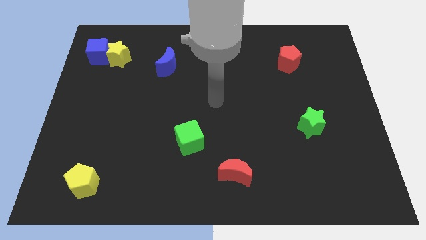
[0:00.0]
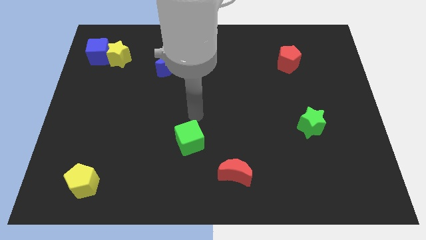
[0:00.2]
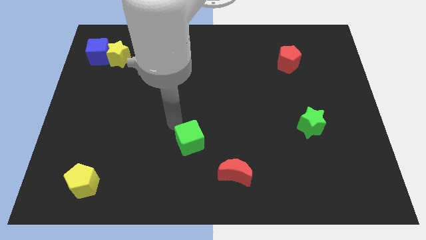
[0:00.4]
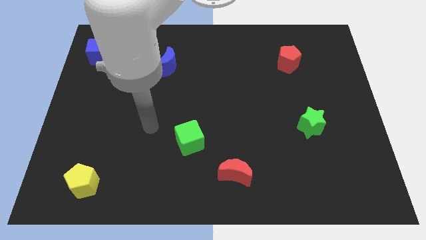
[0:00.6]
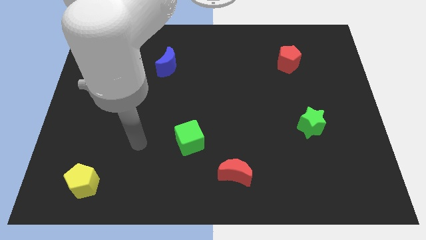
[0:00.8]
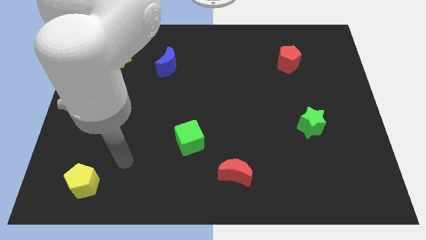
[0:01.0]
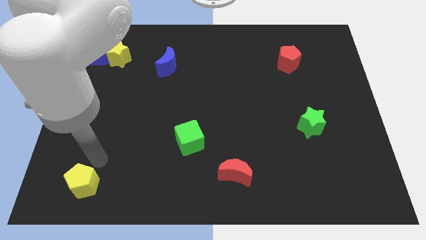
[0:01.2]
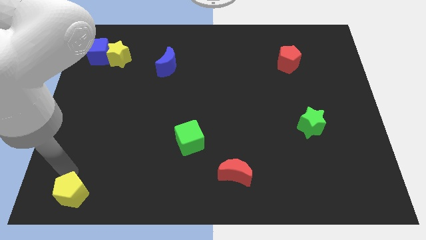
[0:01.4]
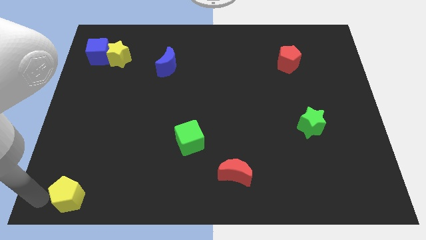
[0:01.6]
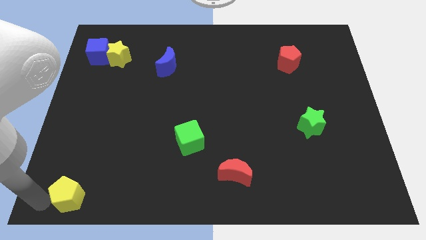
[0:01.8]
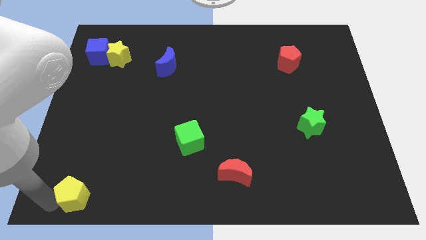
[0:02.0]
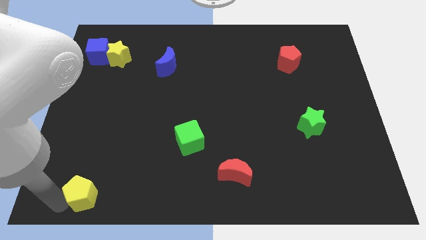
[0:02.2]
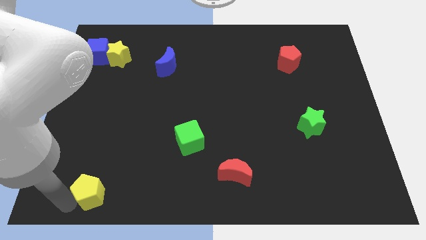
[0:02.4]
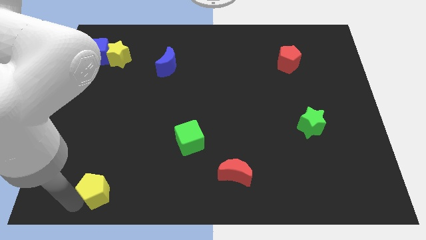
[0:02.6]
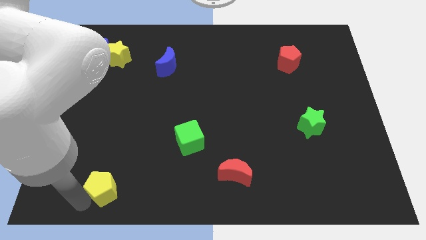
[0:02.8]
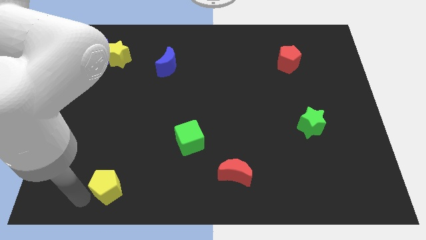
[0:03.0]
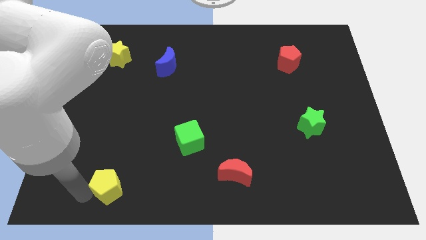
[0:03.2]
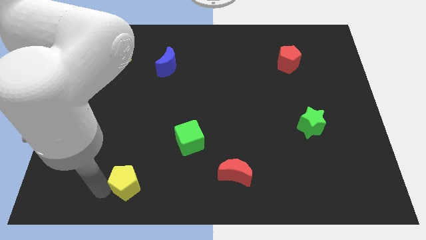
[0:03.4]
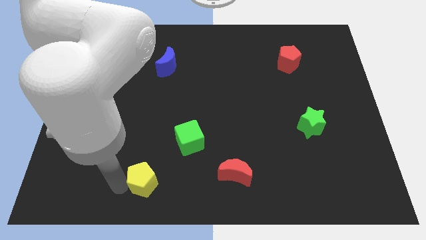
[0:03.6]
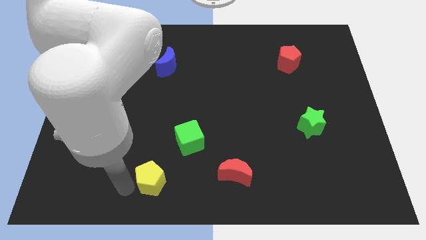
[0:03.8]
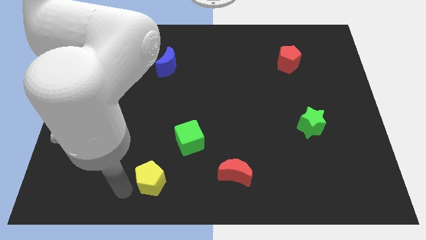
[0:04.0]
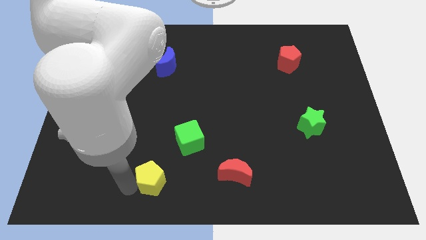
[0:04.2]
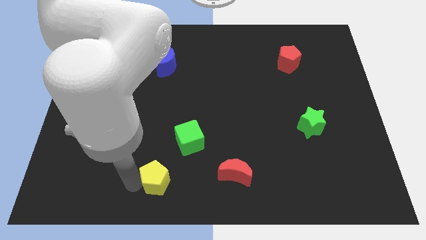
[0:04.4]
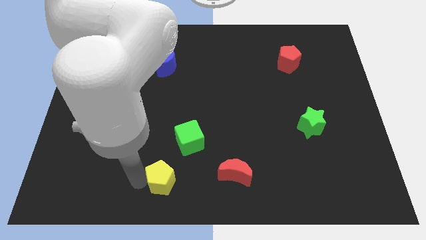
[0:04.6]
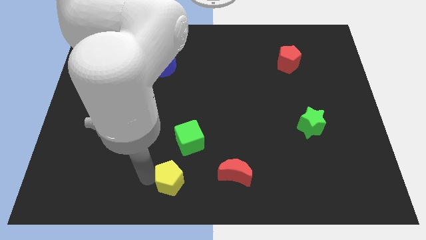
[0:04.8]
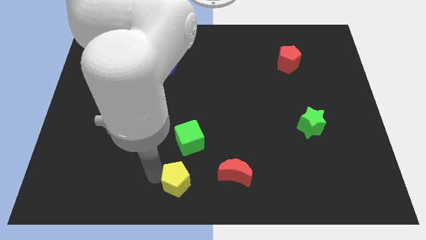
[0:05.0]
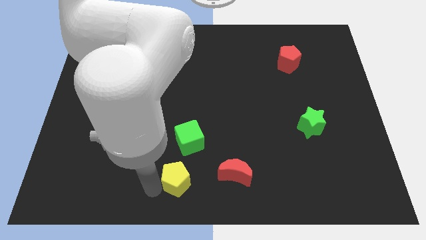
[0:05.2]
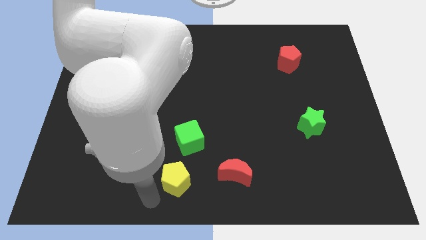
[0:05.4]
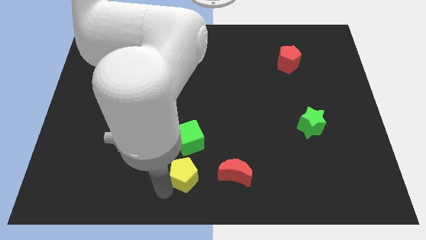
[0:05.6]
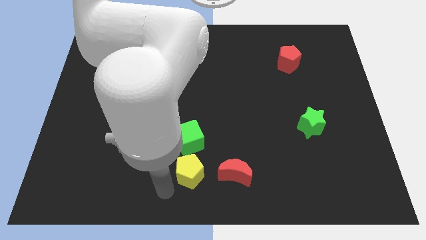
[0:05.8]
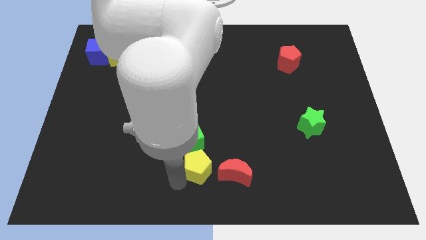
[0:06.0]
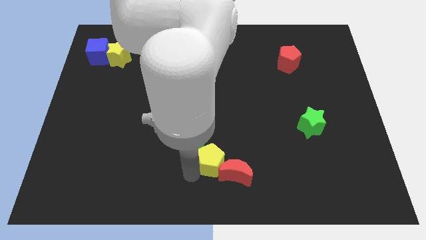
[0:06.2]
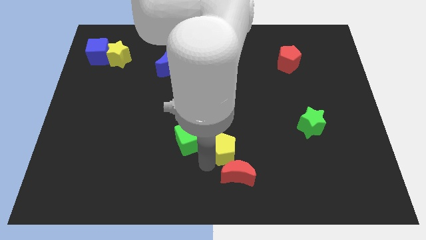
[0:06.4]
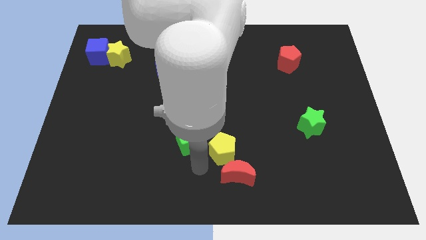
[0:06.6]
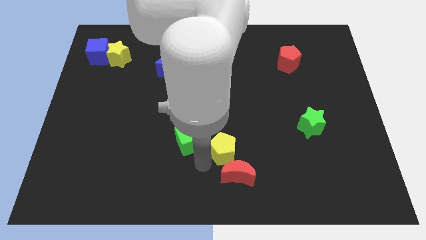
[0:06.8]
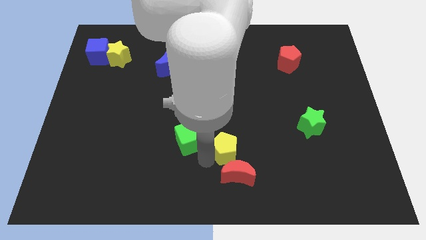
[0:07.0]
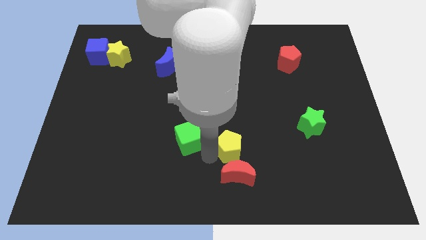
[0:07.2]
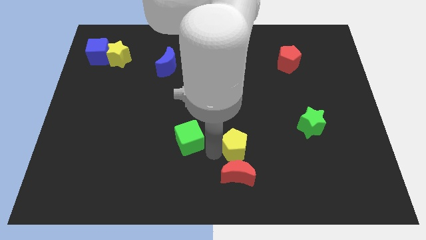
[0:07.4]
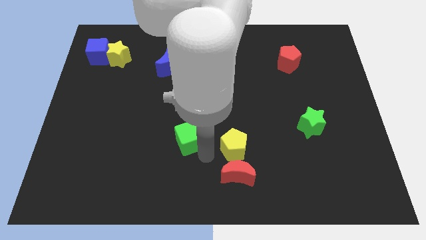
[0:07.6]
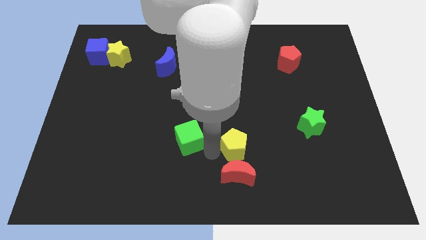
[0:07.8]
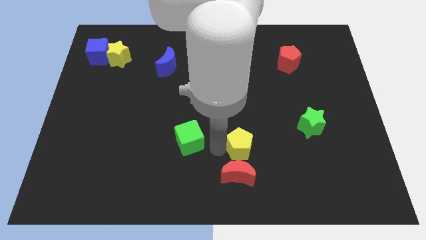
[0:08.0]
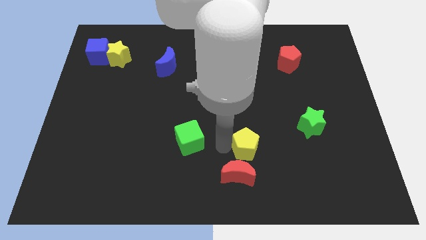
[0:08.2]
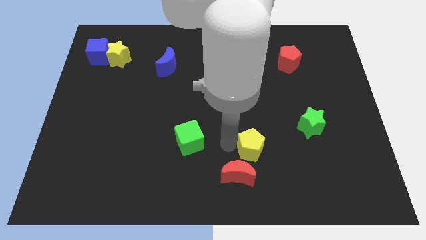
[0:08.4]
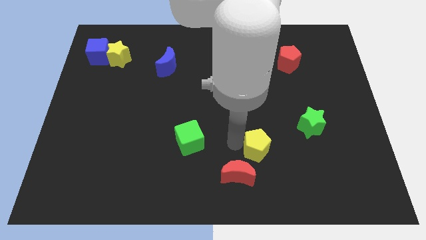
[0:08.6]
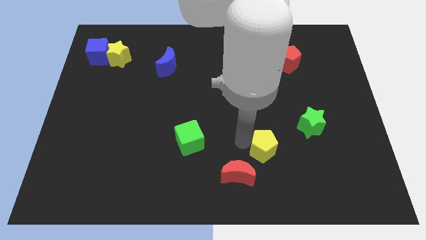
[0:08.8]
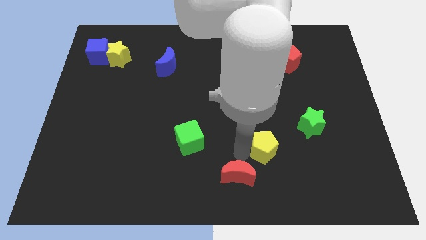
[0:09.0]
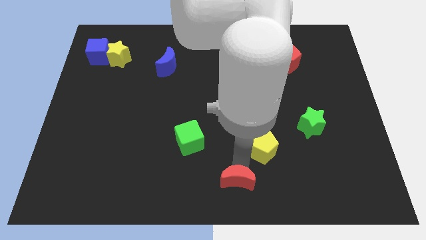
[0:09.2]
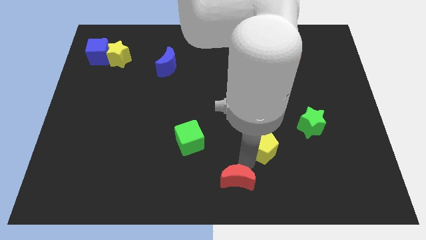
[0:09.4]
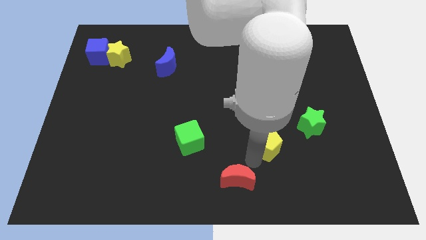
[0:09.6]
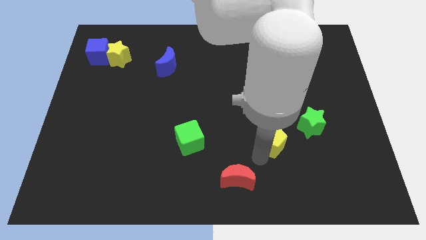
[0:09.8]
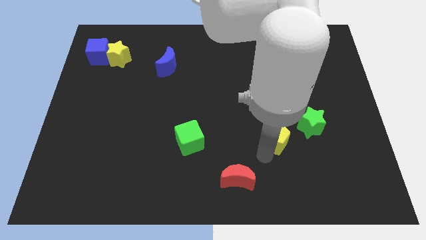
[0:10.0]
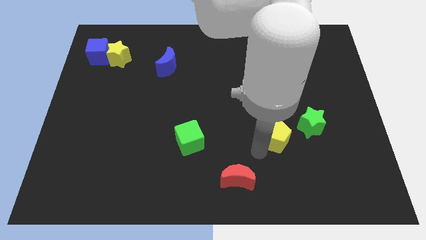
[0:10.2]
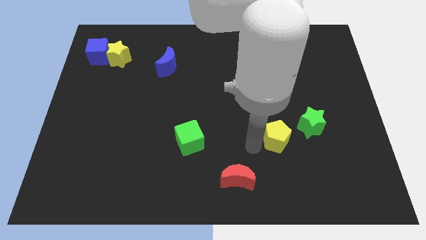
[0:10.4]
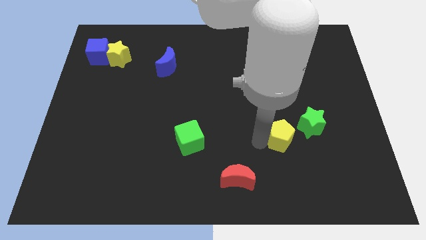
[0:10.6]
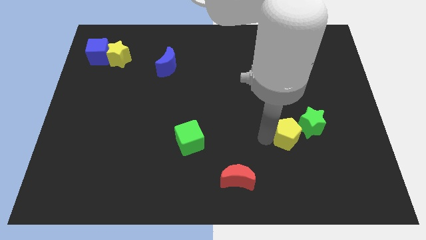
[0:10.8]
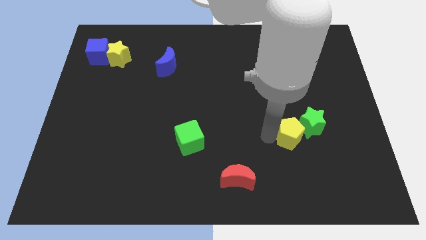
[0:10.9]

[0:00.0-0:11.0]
slide the yellow pentagon close to the green star

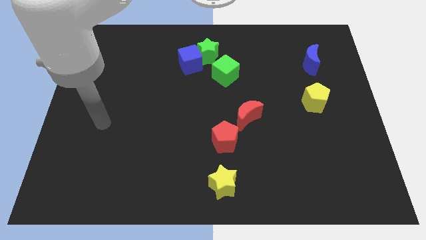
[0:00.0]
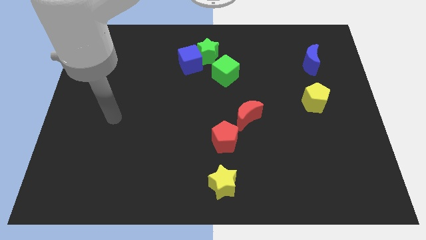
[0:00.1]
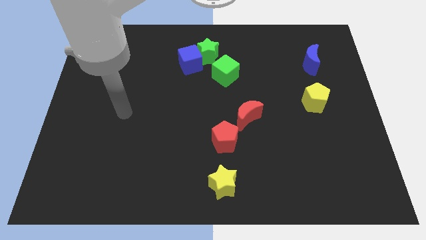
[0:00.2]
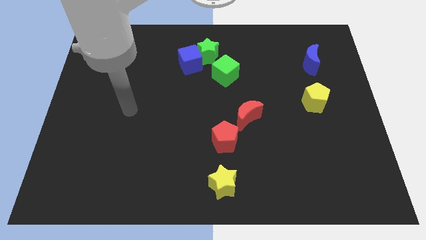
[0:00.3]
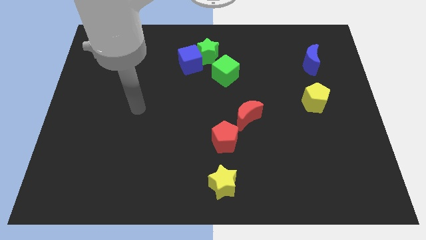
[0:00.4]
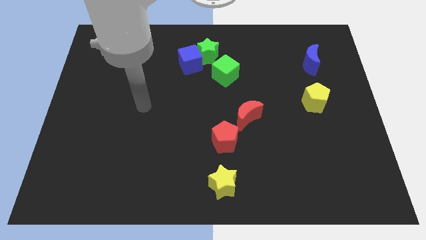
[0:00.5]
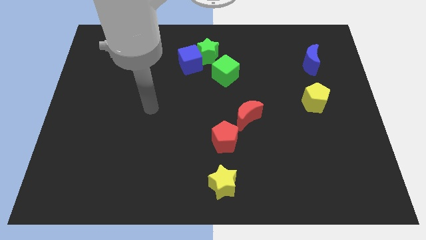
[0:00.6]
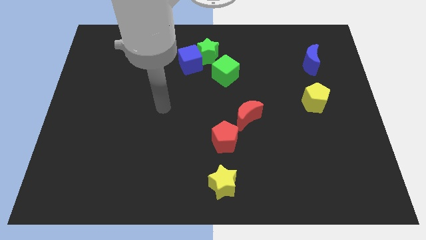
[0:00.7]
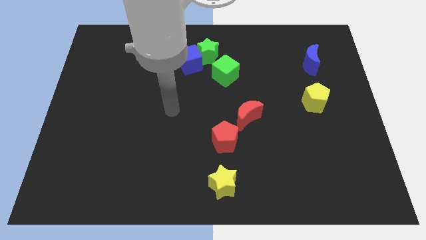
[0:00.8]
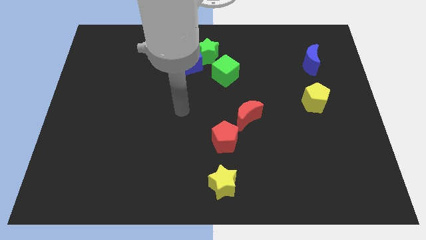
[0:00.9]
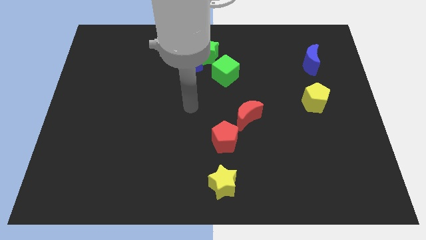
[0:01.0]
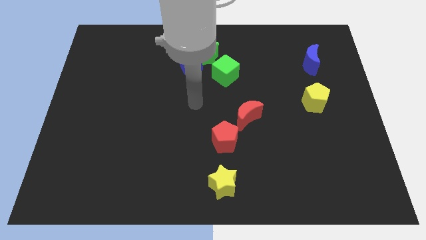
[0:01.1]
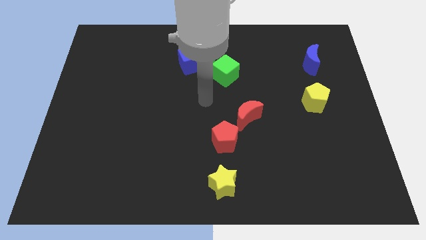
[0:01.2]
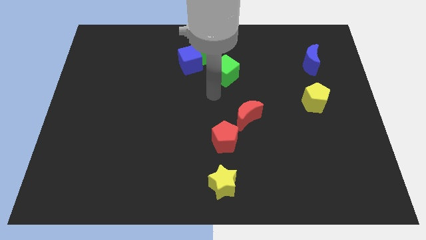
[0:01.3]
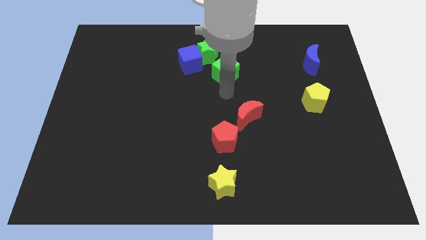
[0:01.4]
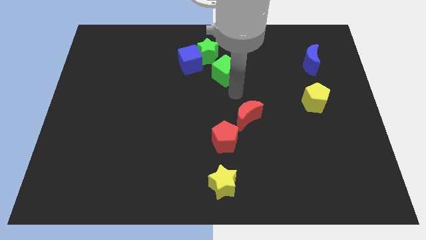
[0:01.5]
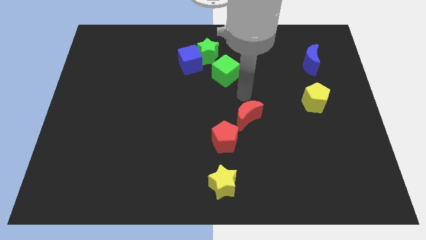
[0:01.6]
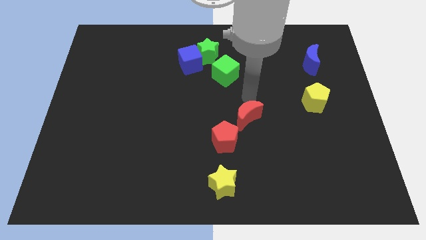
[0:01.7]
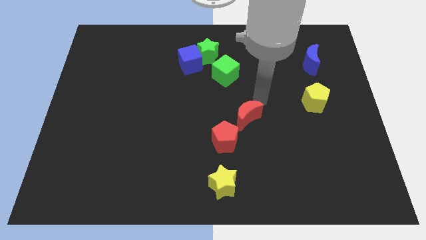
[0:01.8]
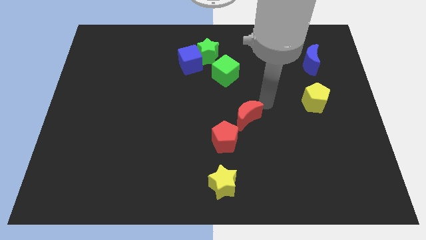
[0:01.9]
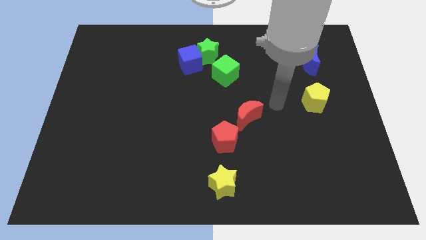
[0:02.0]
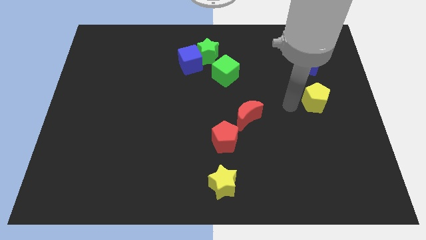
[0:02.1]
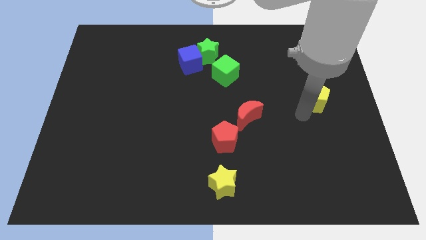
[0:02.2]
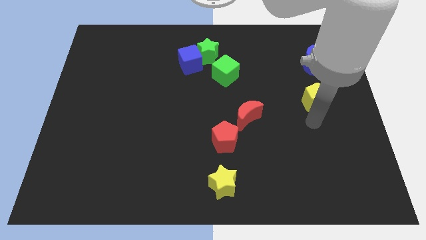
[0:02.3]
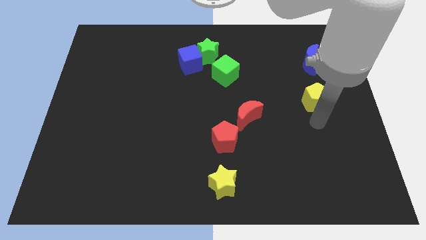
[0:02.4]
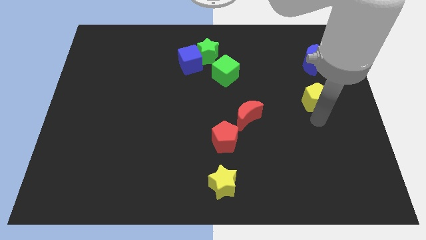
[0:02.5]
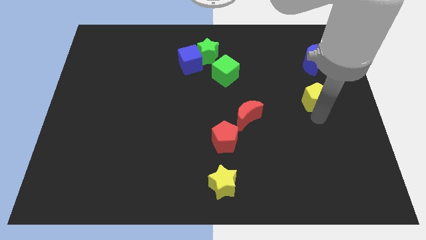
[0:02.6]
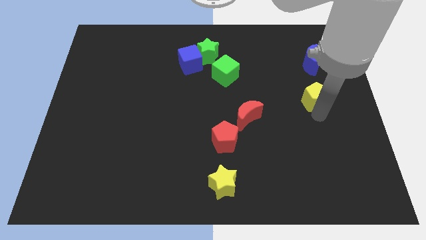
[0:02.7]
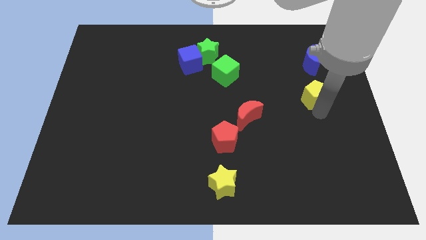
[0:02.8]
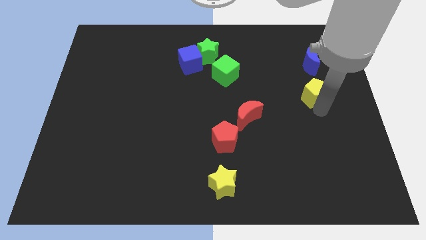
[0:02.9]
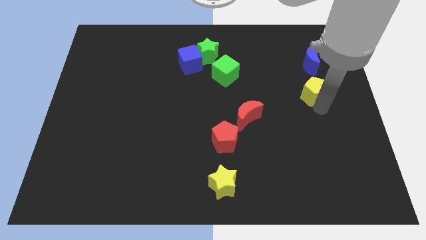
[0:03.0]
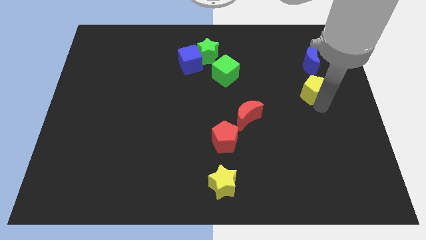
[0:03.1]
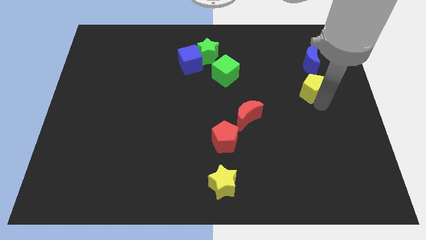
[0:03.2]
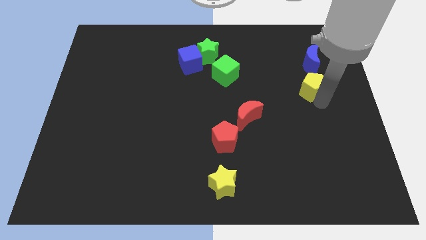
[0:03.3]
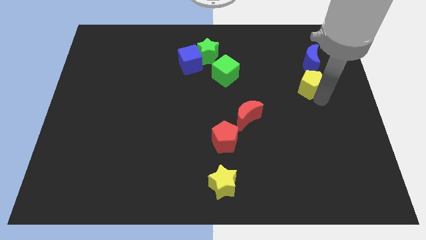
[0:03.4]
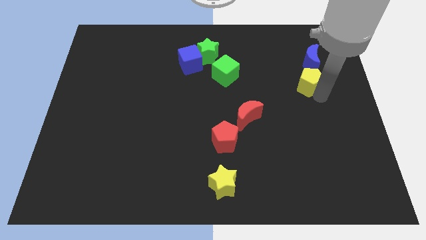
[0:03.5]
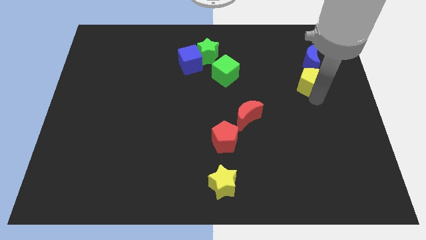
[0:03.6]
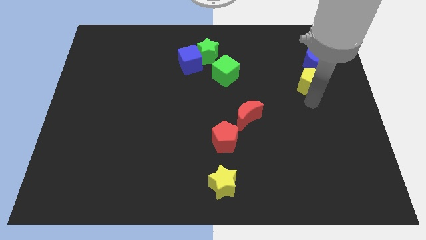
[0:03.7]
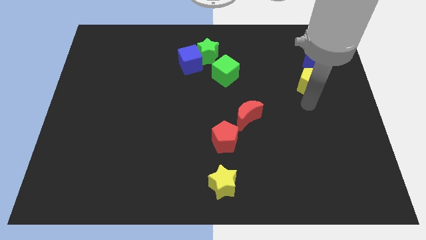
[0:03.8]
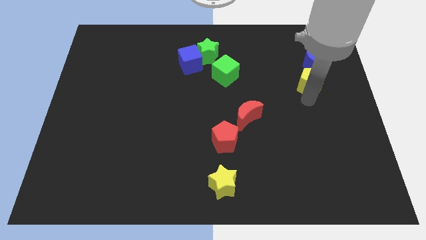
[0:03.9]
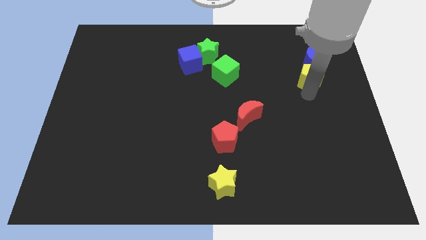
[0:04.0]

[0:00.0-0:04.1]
slide the yellow pentagon close to the blue moon
